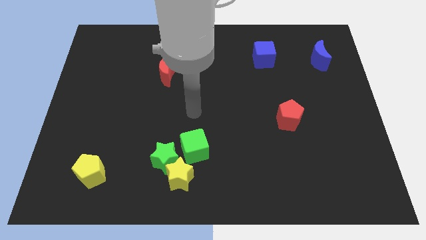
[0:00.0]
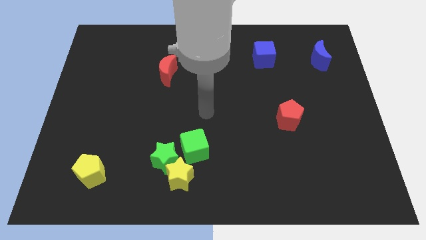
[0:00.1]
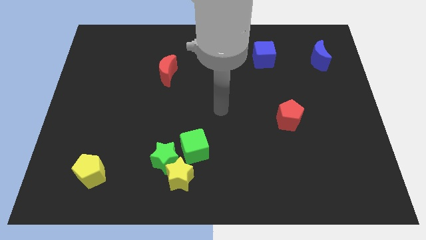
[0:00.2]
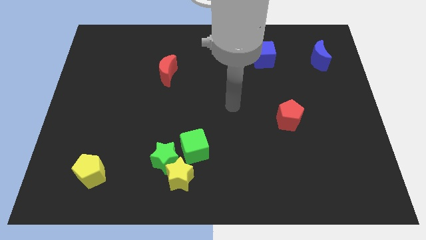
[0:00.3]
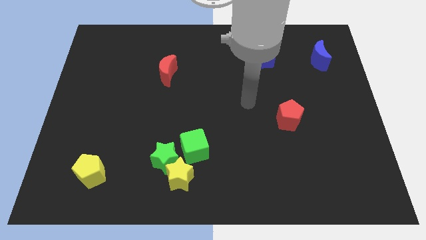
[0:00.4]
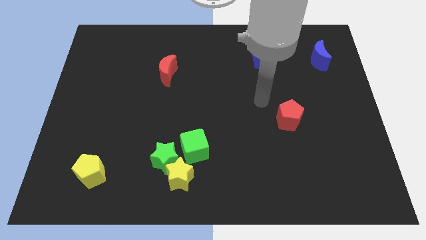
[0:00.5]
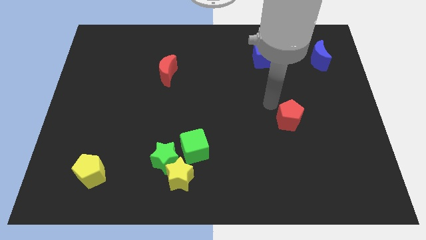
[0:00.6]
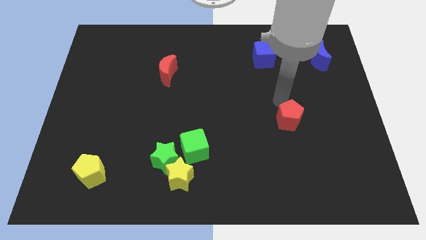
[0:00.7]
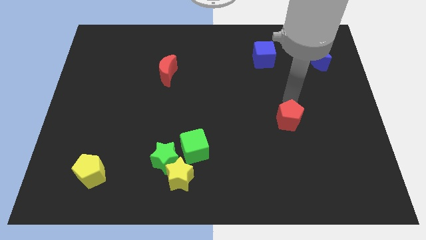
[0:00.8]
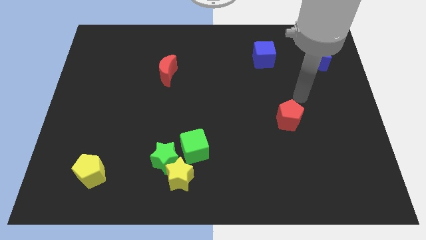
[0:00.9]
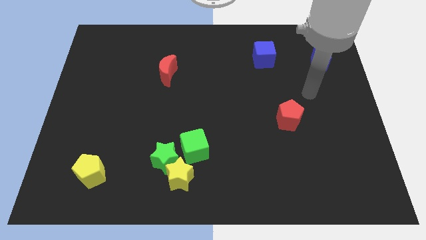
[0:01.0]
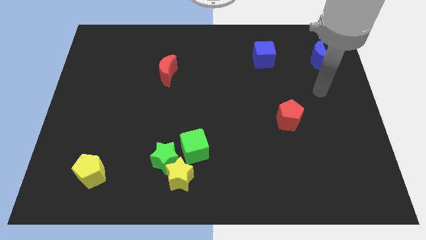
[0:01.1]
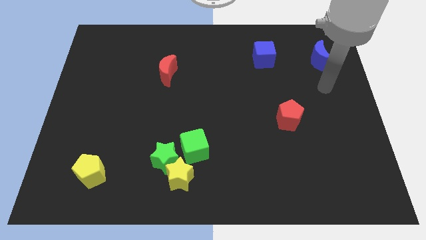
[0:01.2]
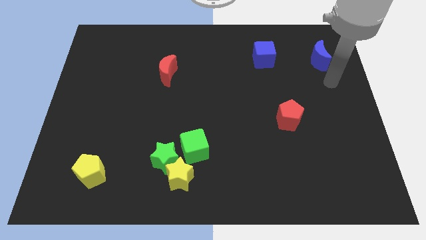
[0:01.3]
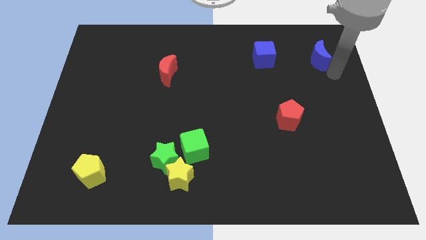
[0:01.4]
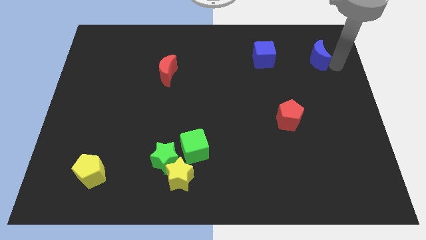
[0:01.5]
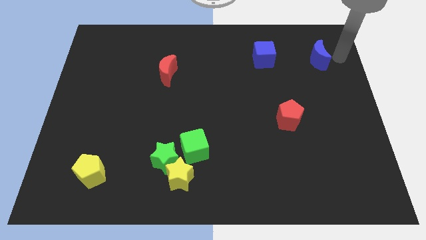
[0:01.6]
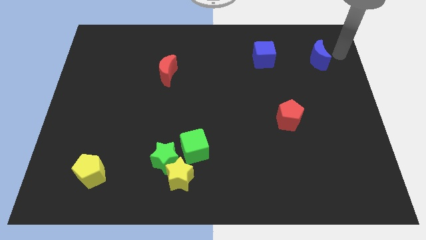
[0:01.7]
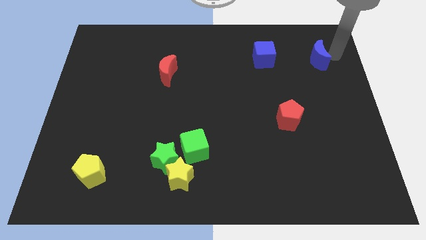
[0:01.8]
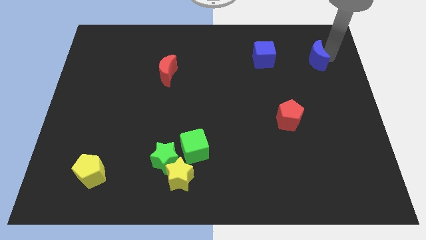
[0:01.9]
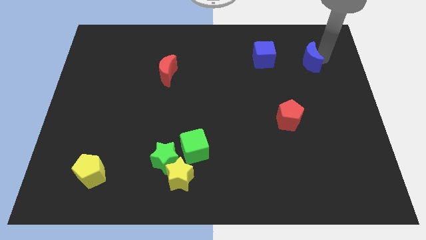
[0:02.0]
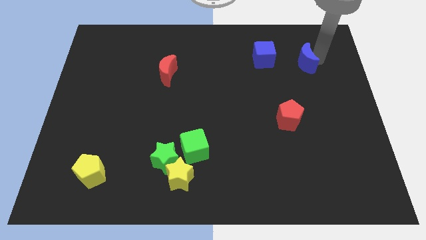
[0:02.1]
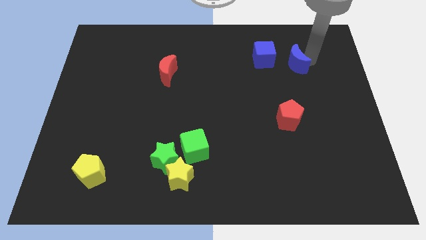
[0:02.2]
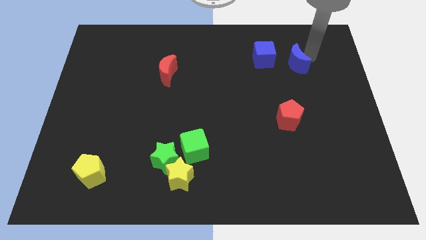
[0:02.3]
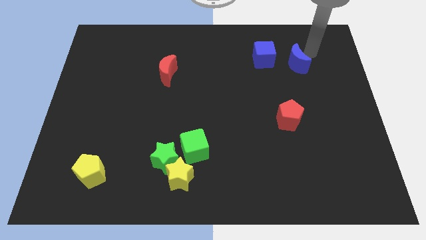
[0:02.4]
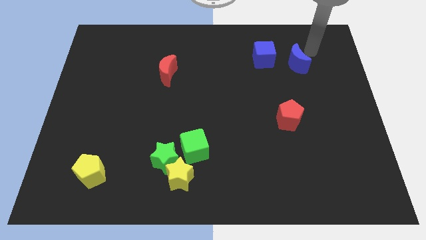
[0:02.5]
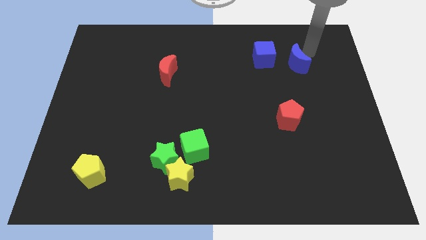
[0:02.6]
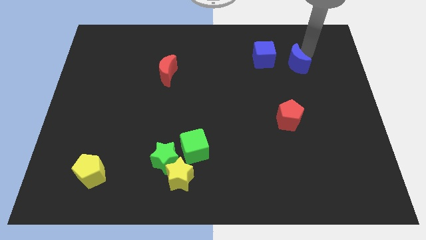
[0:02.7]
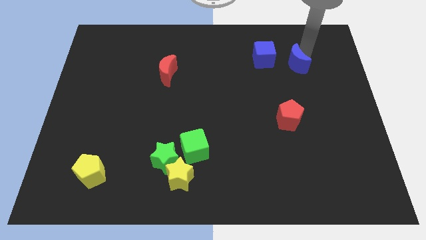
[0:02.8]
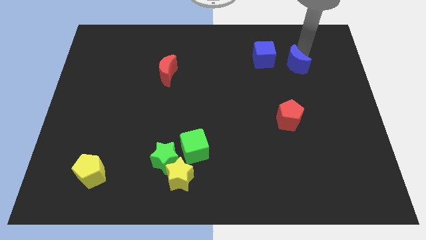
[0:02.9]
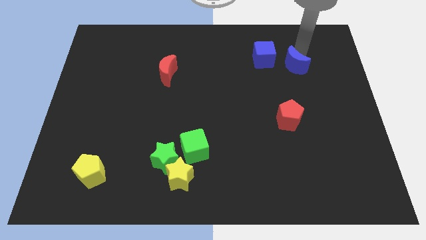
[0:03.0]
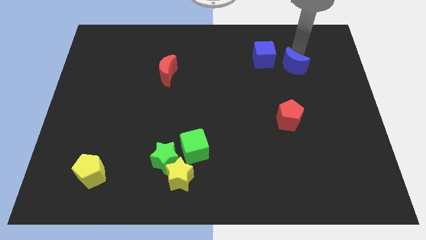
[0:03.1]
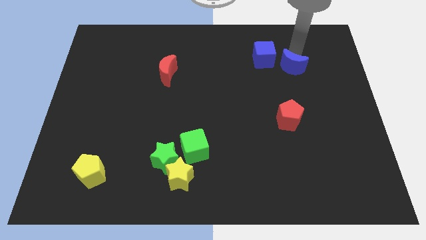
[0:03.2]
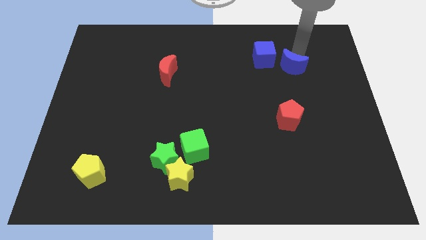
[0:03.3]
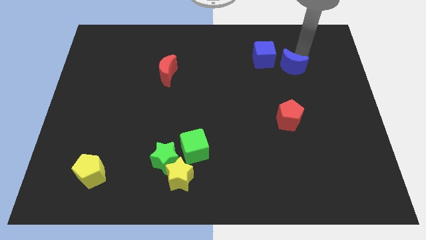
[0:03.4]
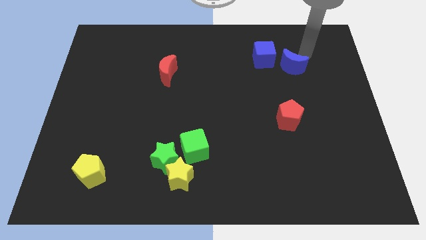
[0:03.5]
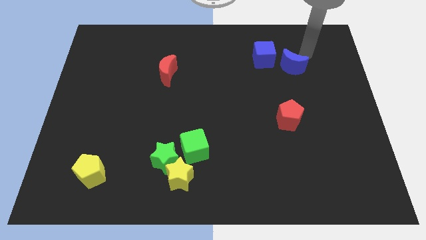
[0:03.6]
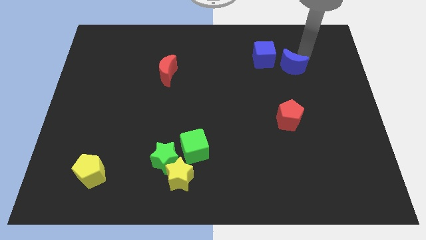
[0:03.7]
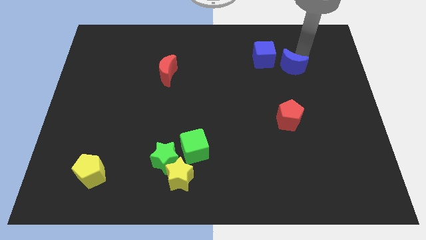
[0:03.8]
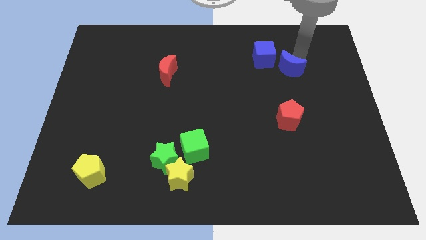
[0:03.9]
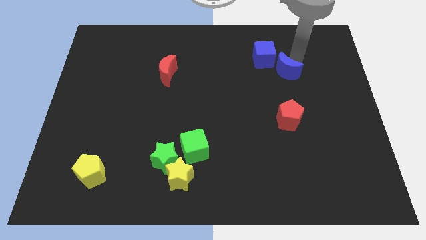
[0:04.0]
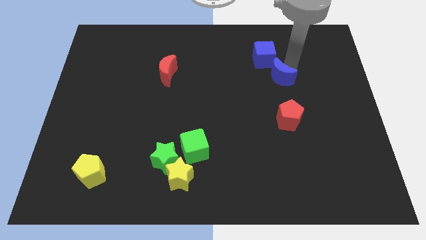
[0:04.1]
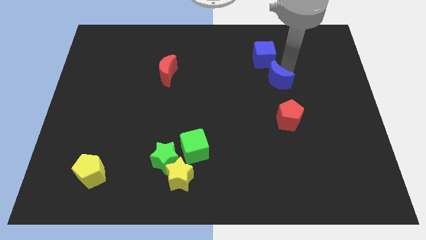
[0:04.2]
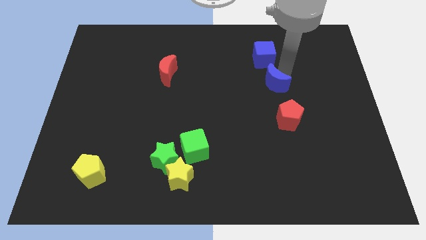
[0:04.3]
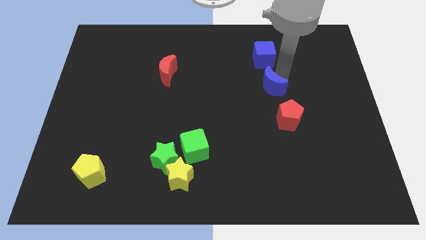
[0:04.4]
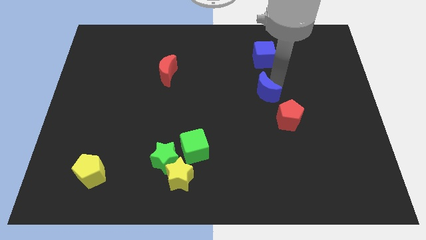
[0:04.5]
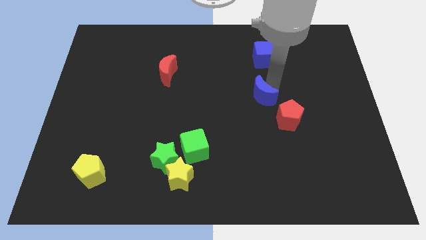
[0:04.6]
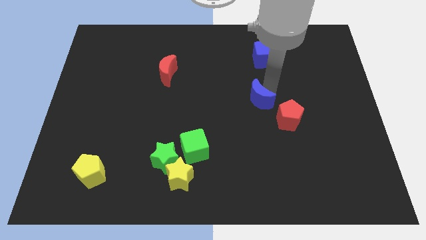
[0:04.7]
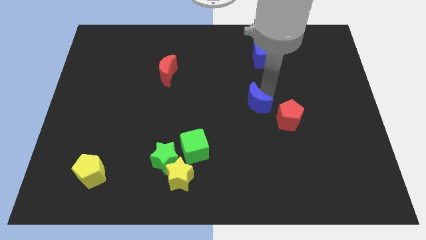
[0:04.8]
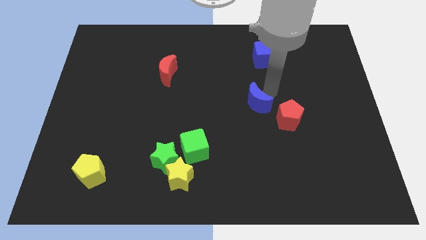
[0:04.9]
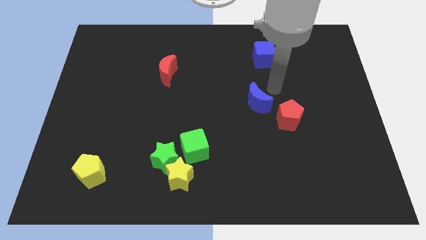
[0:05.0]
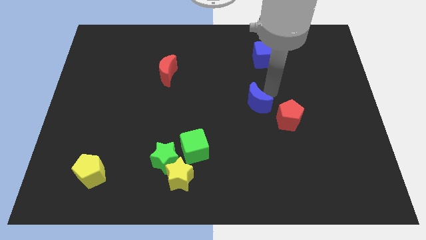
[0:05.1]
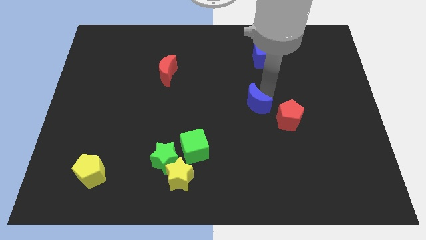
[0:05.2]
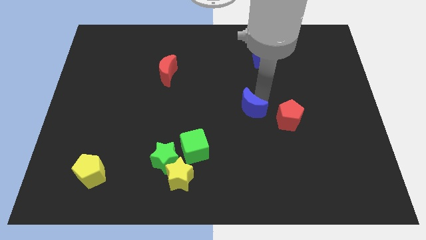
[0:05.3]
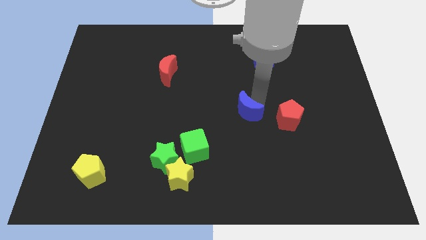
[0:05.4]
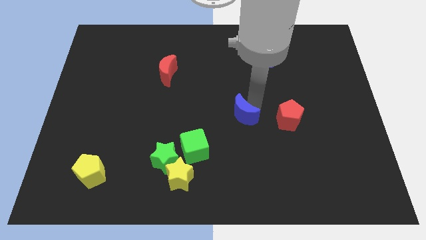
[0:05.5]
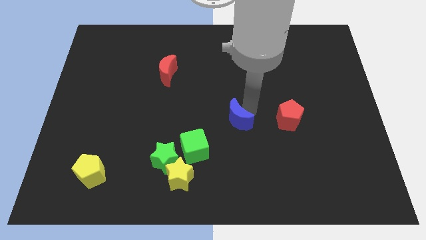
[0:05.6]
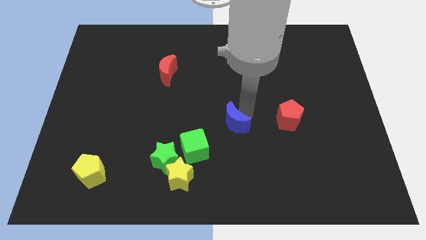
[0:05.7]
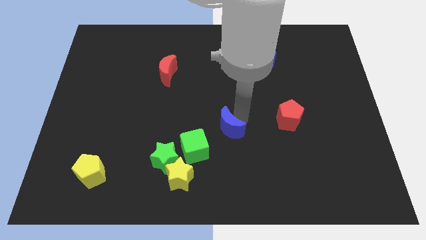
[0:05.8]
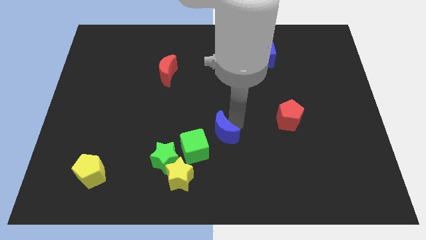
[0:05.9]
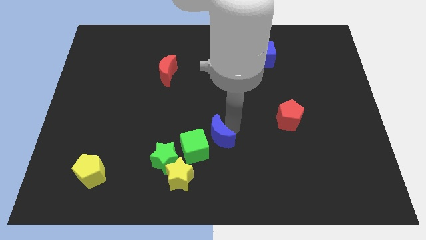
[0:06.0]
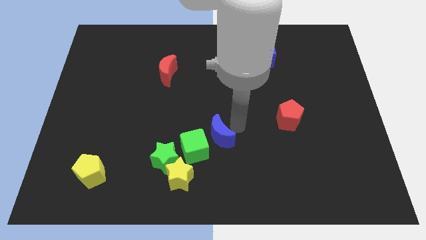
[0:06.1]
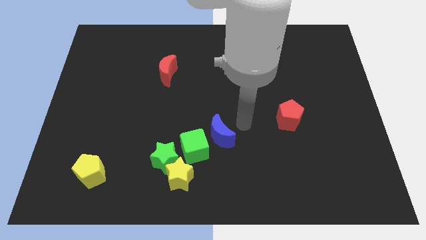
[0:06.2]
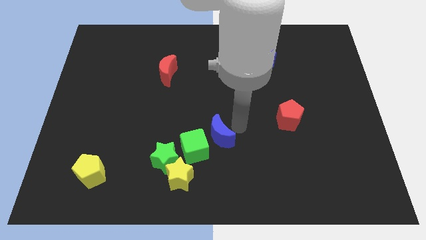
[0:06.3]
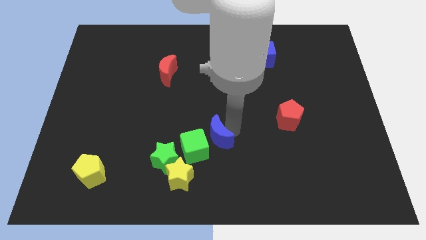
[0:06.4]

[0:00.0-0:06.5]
move the blue moon close to the green cube
